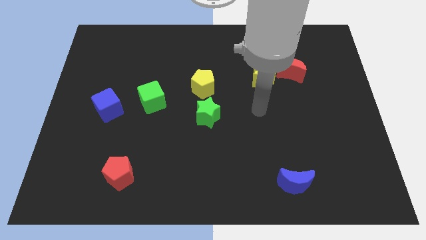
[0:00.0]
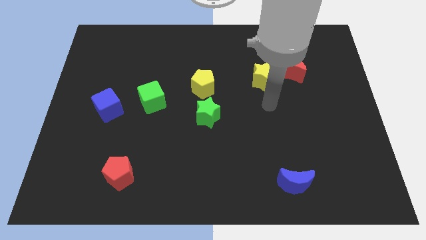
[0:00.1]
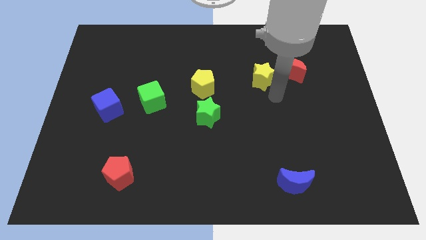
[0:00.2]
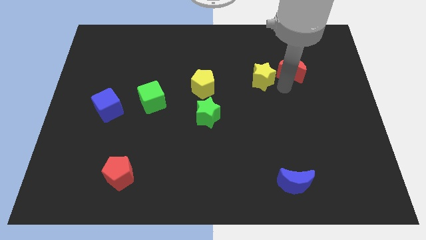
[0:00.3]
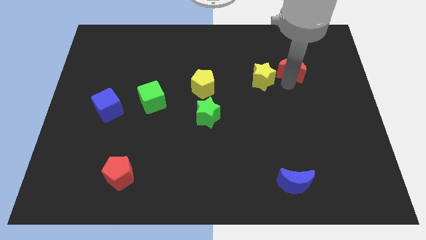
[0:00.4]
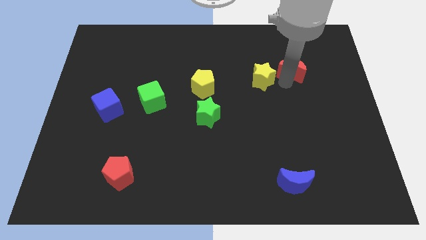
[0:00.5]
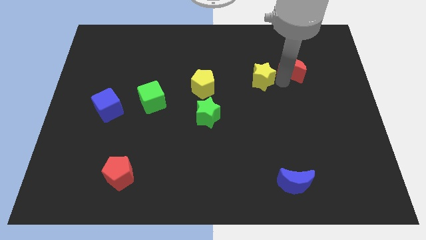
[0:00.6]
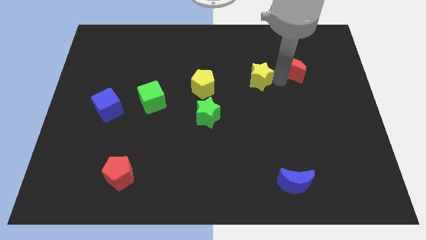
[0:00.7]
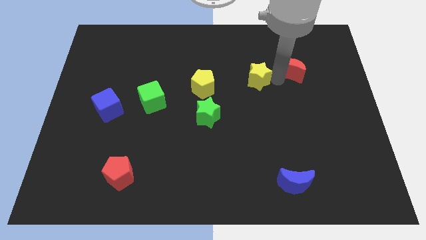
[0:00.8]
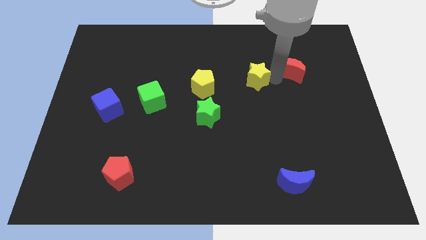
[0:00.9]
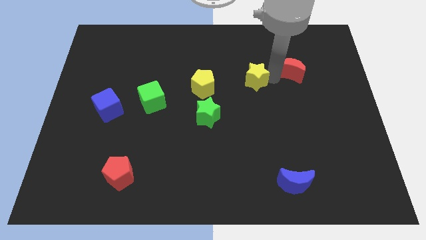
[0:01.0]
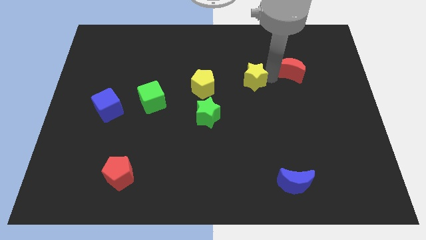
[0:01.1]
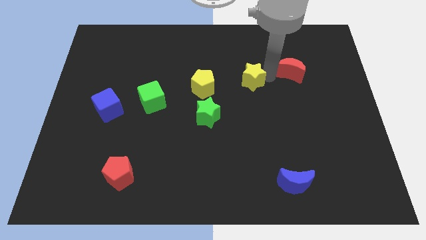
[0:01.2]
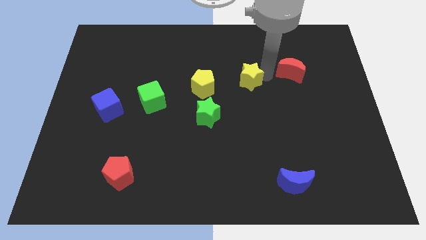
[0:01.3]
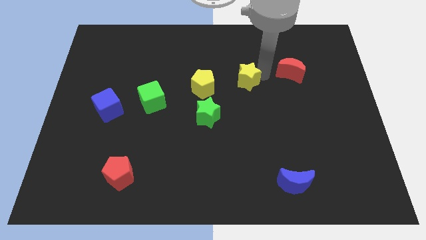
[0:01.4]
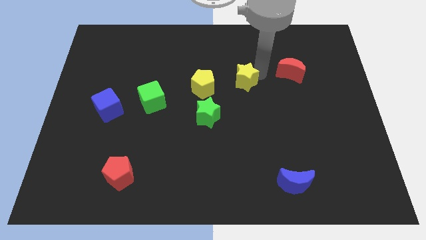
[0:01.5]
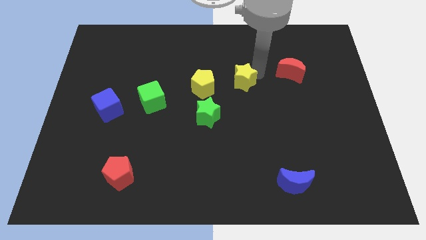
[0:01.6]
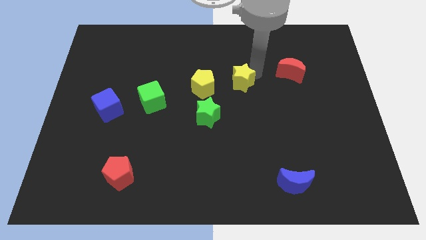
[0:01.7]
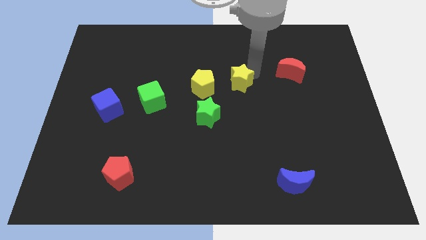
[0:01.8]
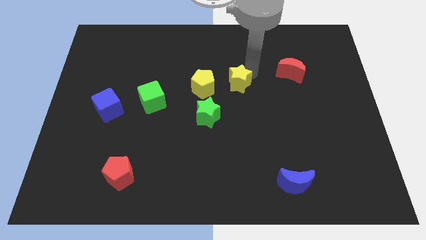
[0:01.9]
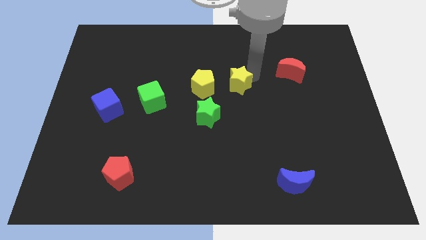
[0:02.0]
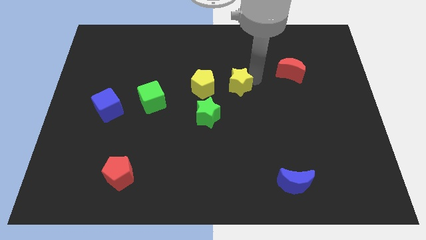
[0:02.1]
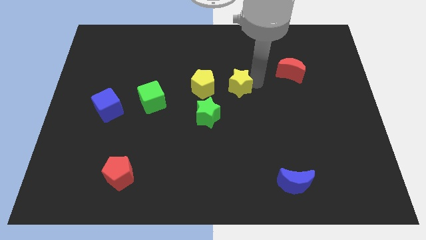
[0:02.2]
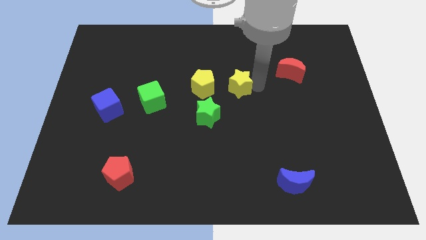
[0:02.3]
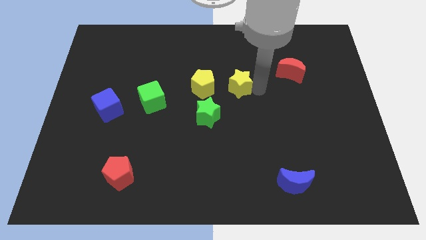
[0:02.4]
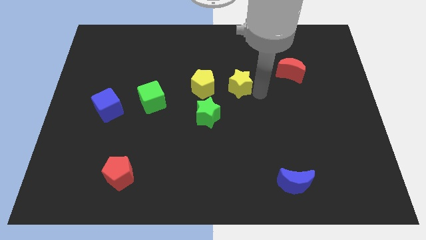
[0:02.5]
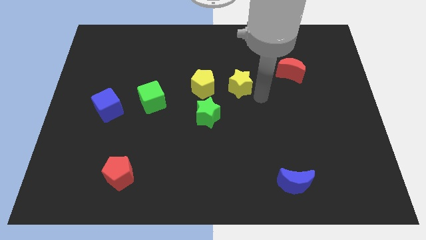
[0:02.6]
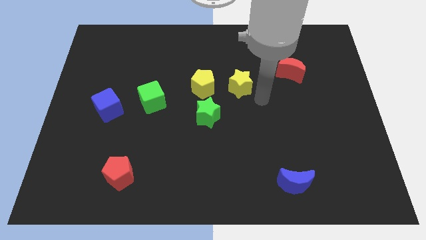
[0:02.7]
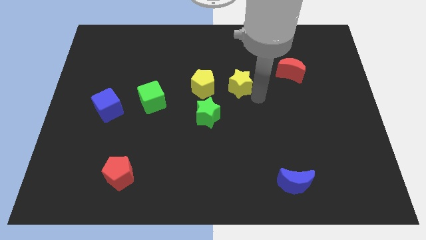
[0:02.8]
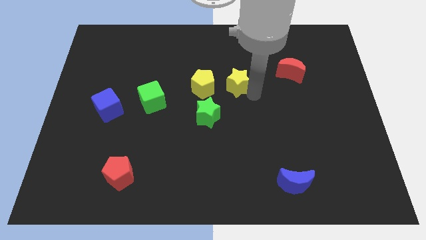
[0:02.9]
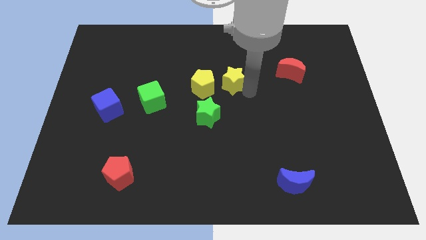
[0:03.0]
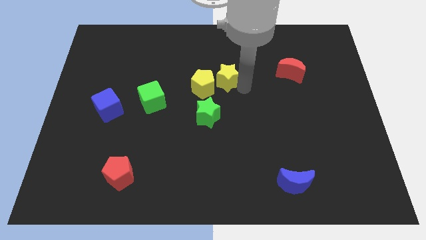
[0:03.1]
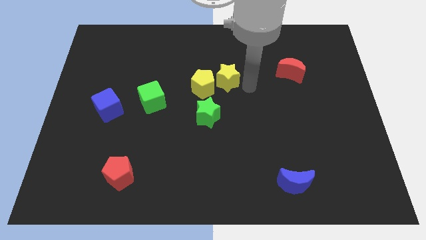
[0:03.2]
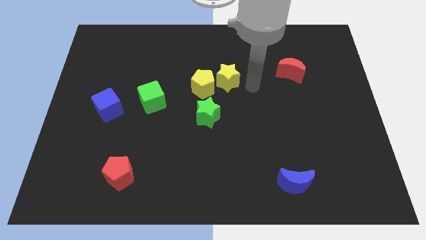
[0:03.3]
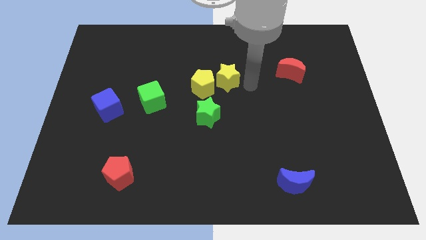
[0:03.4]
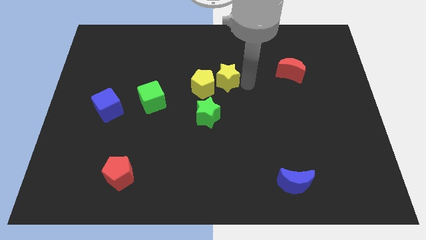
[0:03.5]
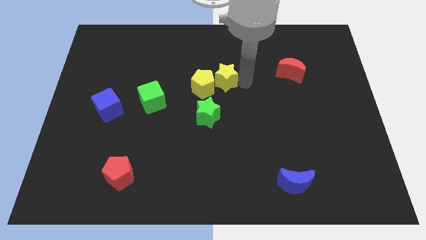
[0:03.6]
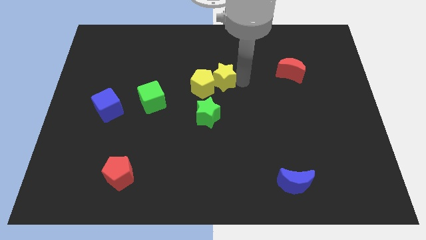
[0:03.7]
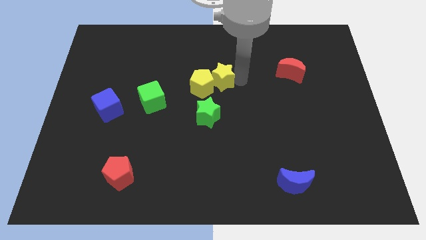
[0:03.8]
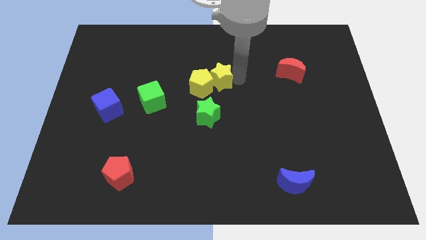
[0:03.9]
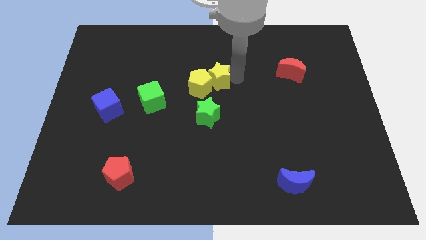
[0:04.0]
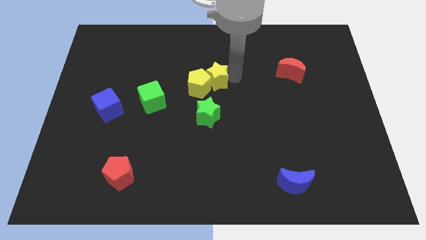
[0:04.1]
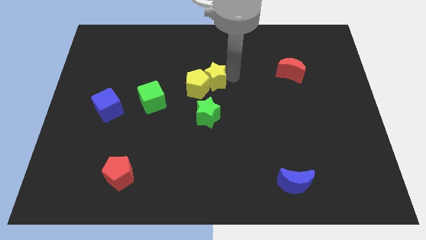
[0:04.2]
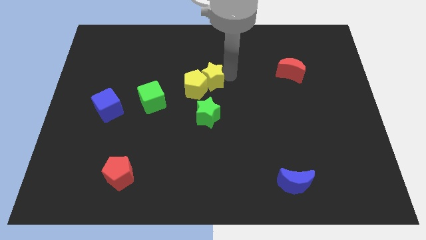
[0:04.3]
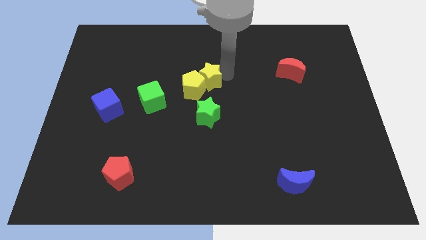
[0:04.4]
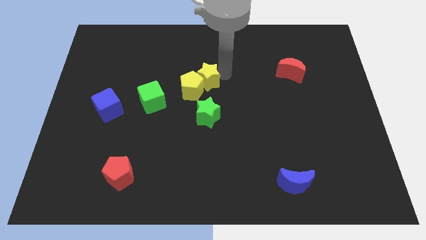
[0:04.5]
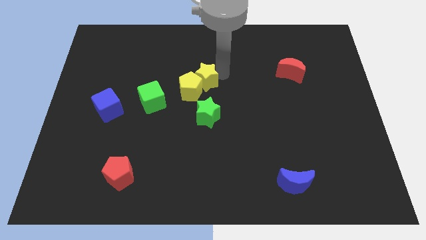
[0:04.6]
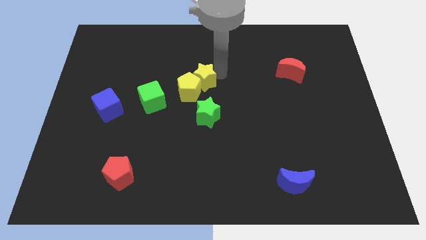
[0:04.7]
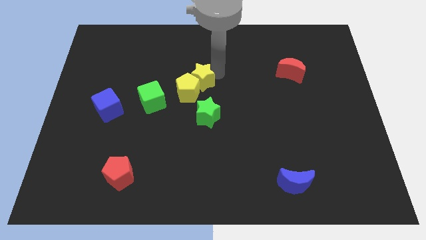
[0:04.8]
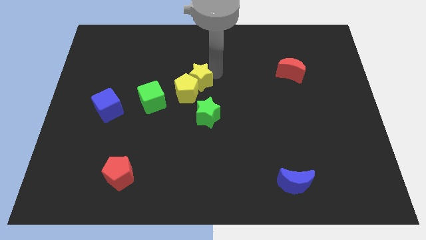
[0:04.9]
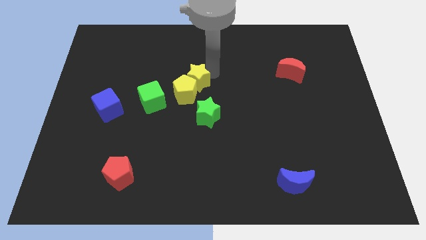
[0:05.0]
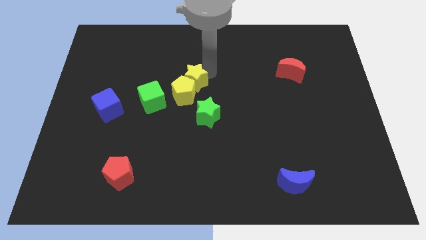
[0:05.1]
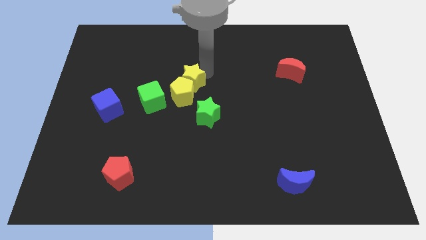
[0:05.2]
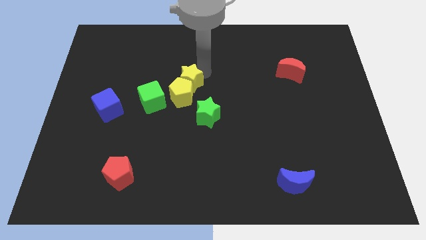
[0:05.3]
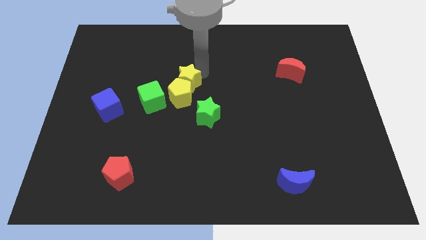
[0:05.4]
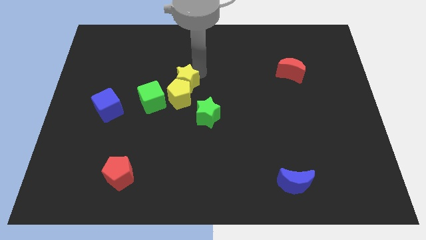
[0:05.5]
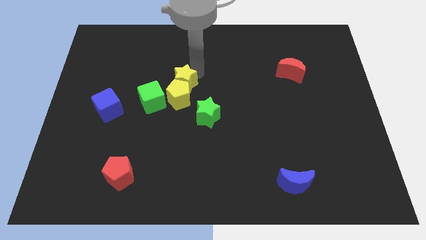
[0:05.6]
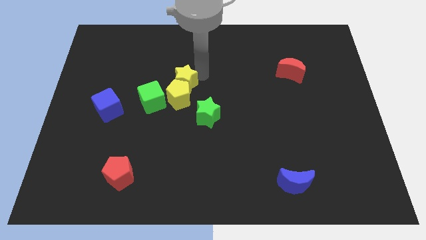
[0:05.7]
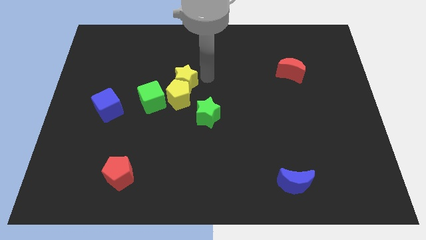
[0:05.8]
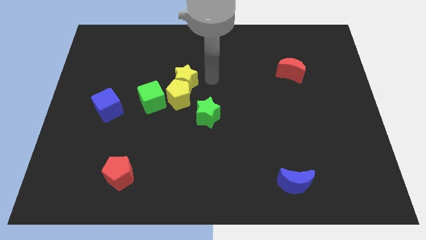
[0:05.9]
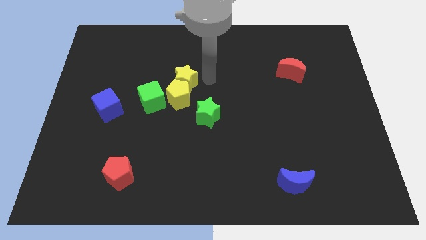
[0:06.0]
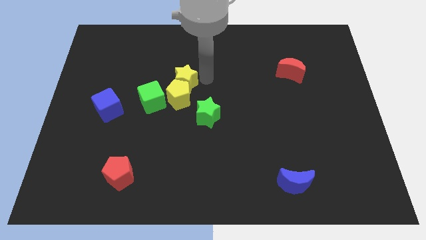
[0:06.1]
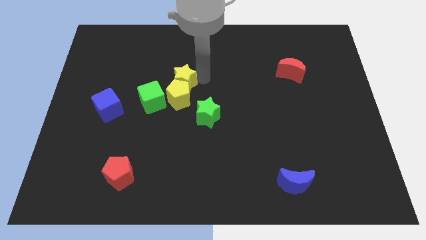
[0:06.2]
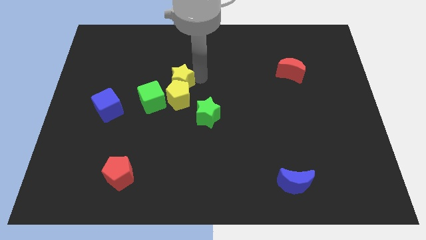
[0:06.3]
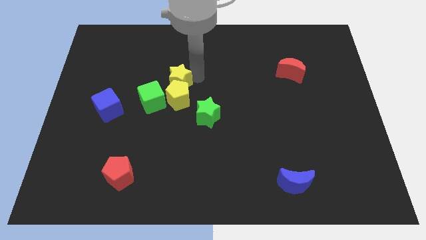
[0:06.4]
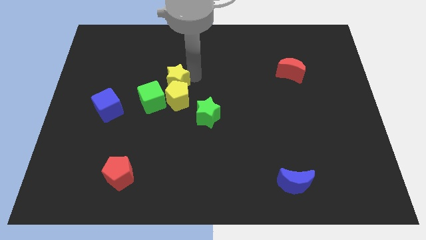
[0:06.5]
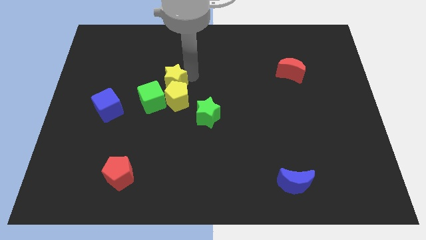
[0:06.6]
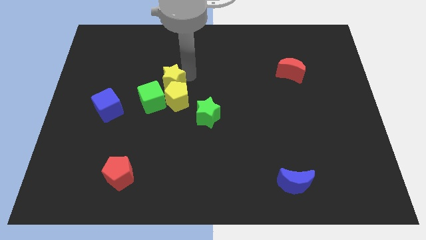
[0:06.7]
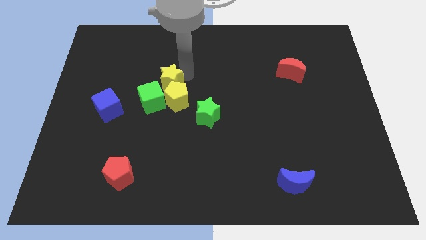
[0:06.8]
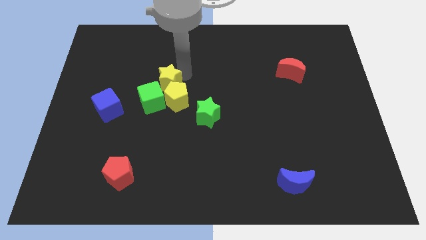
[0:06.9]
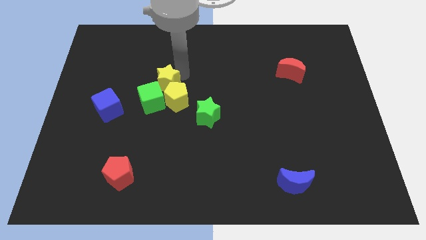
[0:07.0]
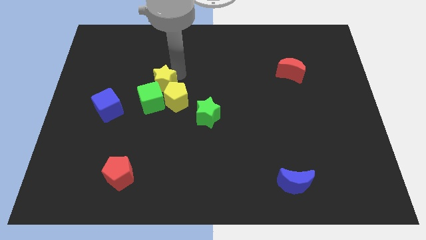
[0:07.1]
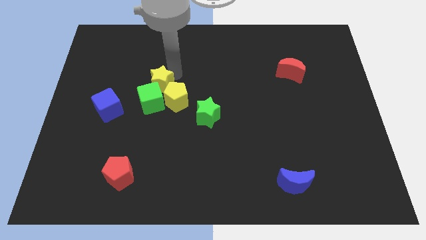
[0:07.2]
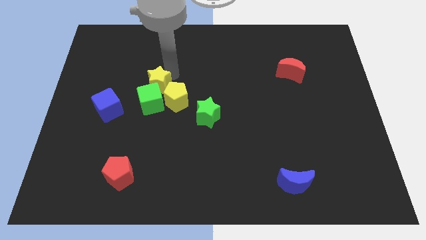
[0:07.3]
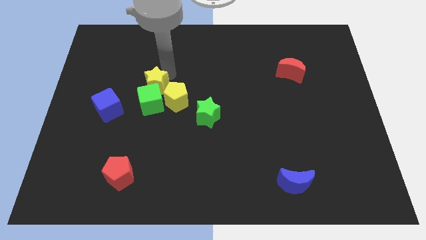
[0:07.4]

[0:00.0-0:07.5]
slide the yellow star diagonally up and to the left of the green cube

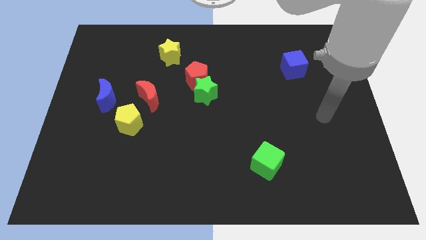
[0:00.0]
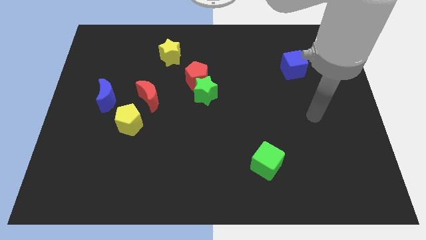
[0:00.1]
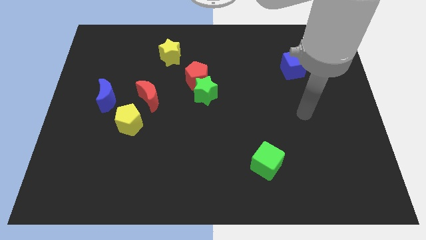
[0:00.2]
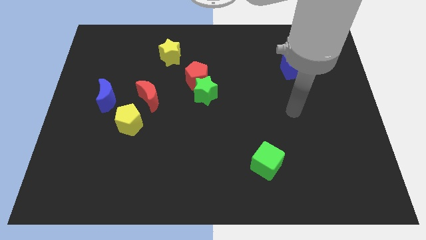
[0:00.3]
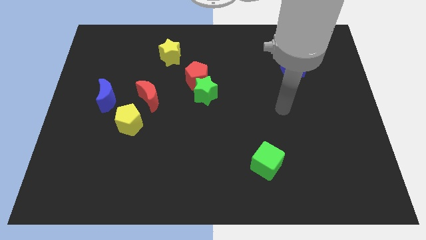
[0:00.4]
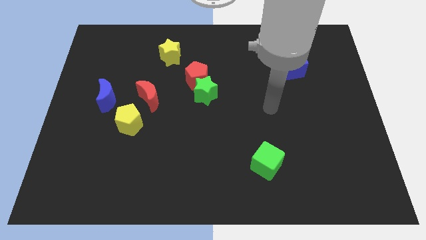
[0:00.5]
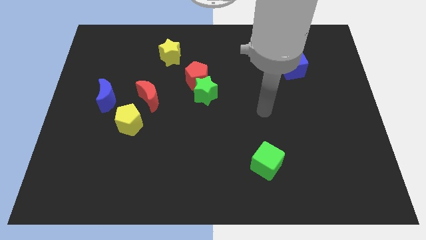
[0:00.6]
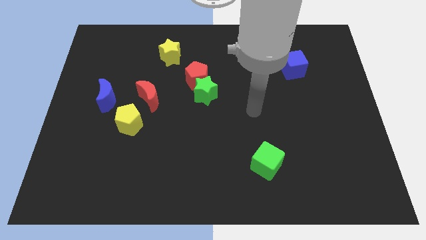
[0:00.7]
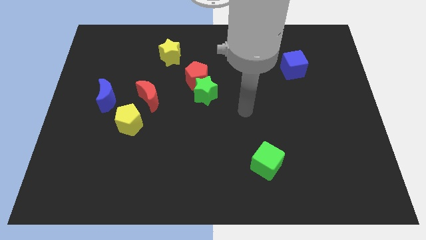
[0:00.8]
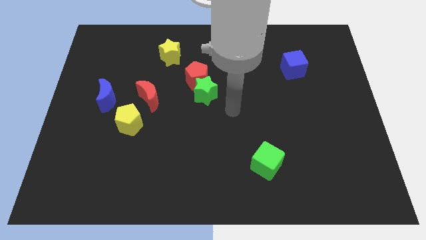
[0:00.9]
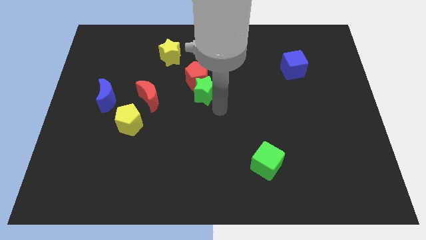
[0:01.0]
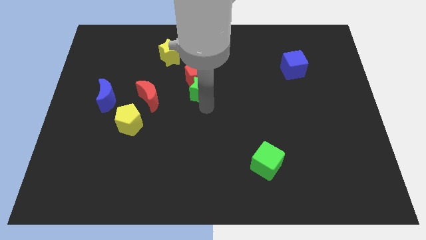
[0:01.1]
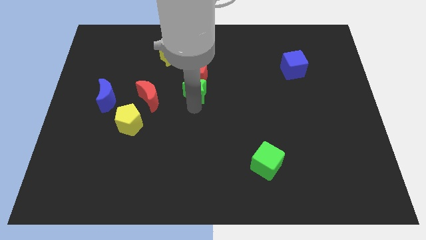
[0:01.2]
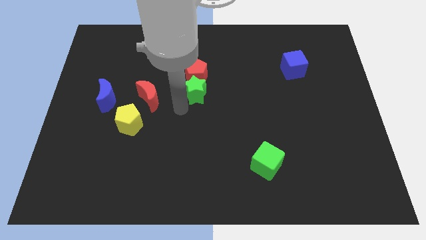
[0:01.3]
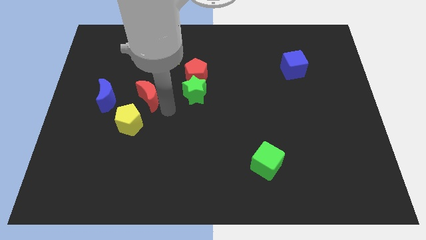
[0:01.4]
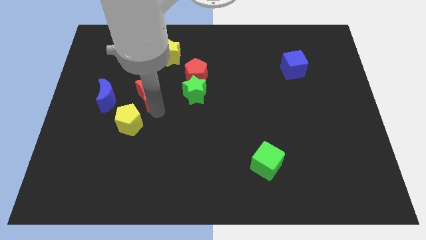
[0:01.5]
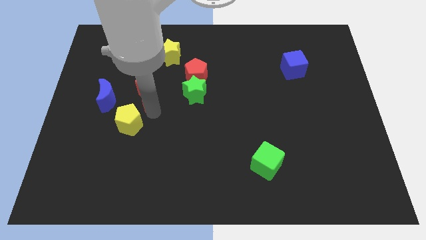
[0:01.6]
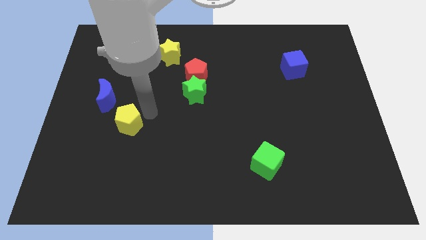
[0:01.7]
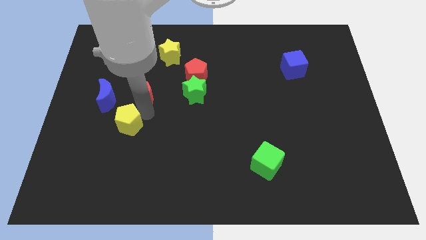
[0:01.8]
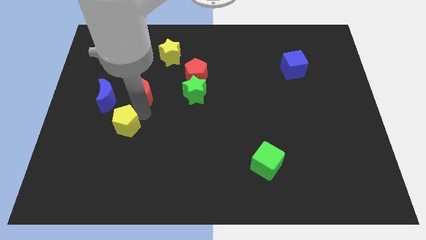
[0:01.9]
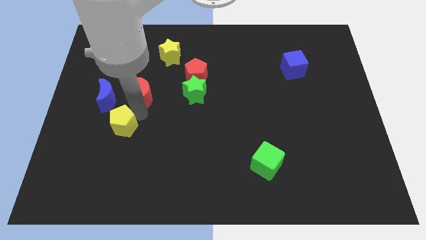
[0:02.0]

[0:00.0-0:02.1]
move the yellow pentagon below the blue moon
